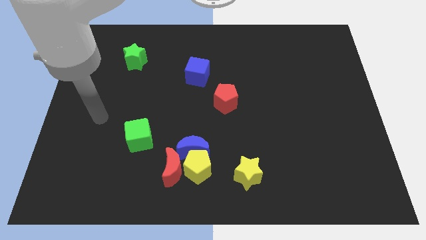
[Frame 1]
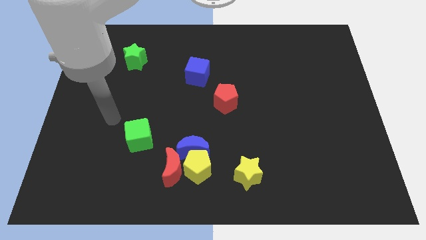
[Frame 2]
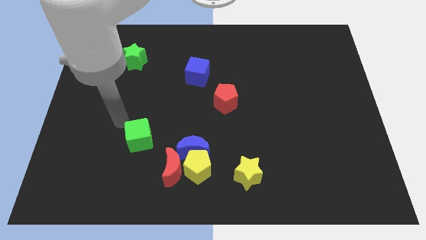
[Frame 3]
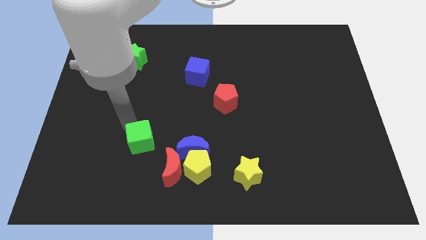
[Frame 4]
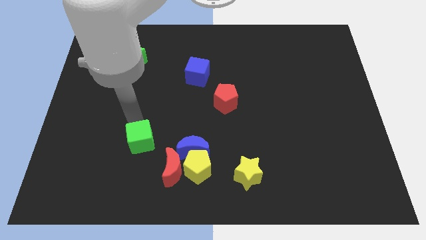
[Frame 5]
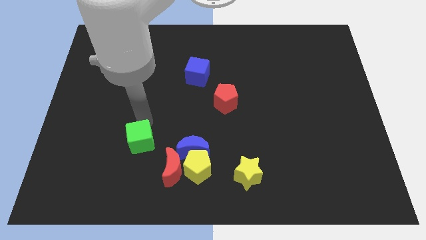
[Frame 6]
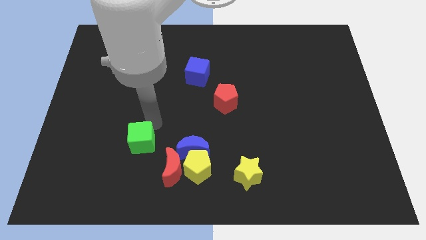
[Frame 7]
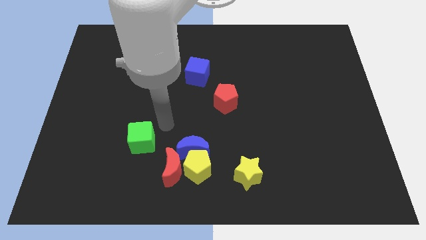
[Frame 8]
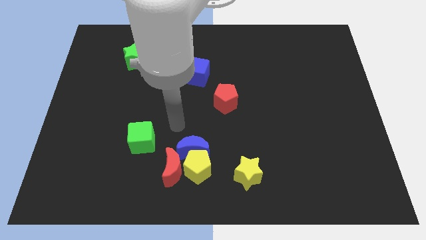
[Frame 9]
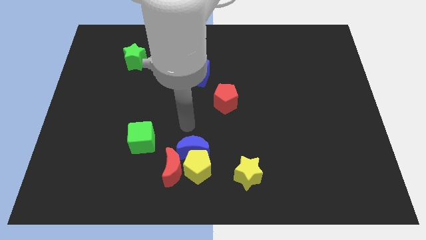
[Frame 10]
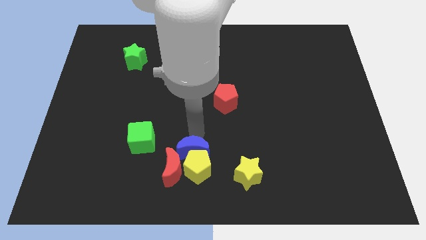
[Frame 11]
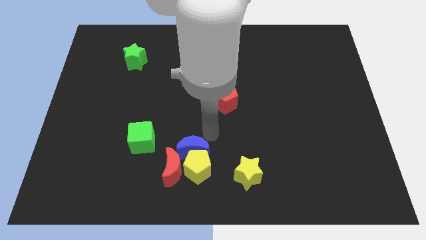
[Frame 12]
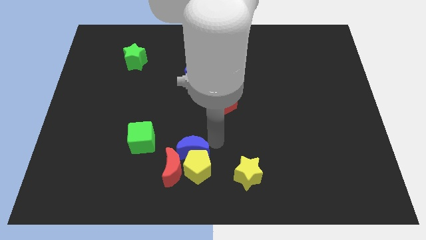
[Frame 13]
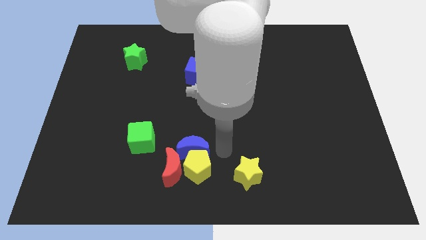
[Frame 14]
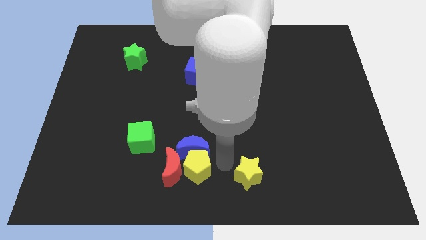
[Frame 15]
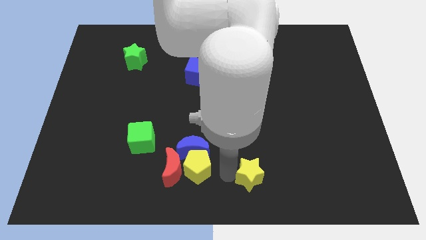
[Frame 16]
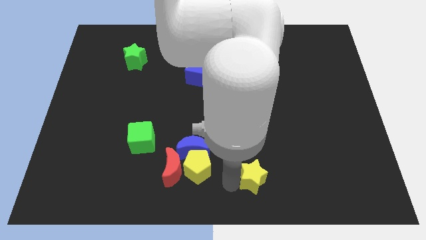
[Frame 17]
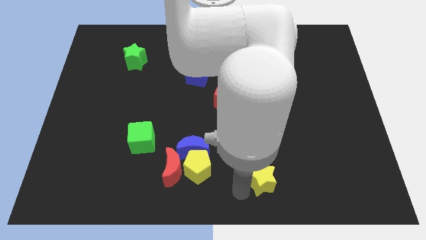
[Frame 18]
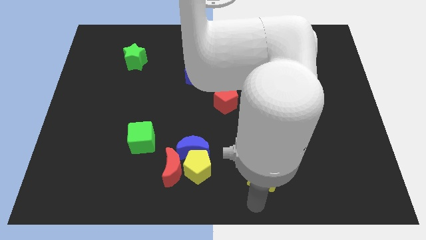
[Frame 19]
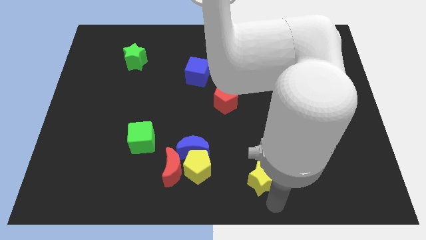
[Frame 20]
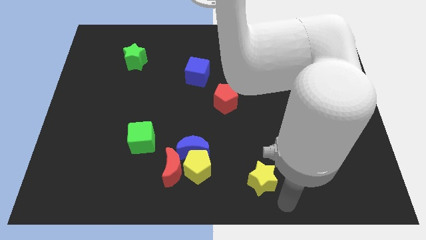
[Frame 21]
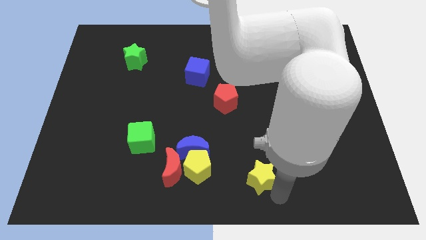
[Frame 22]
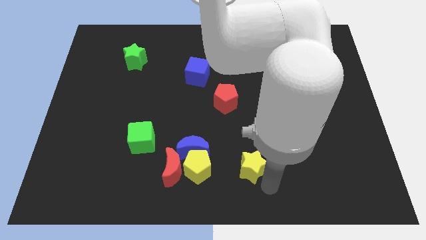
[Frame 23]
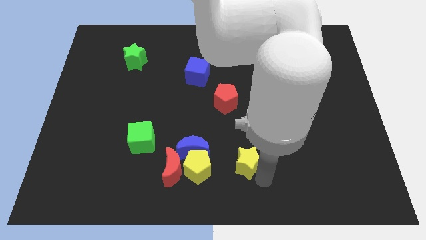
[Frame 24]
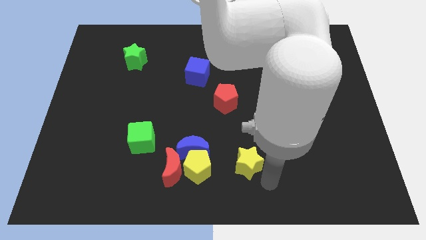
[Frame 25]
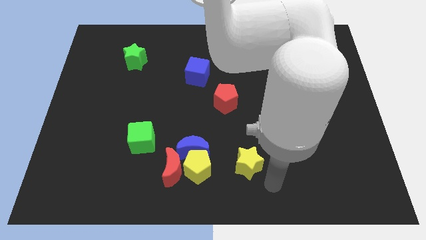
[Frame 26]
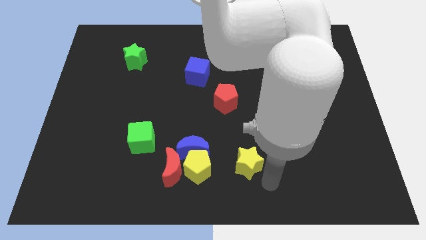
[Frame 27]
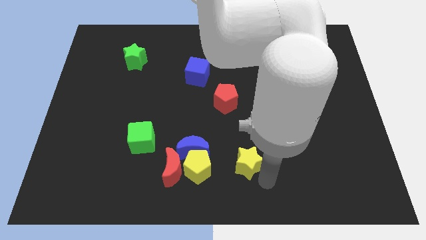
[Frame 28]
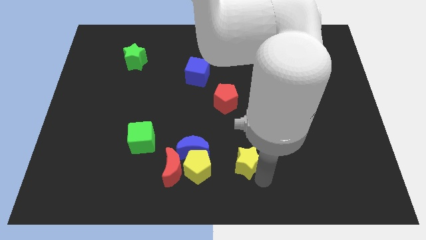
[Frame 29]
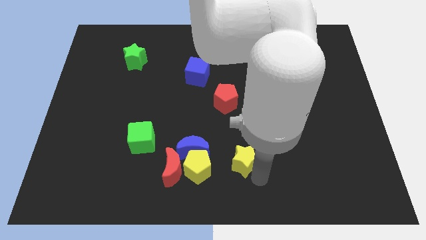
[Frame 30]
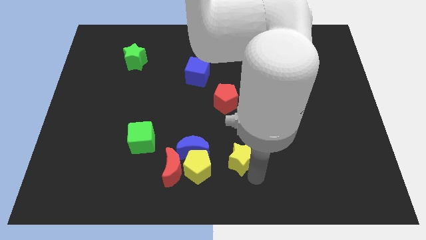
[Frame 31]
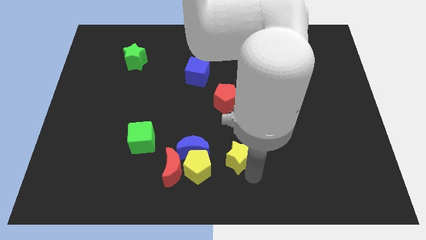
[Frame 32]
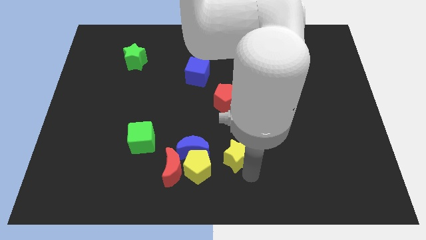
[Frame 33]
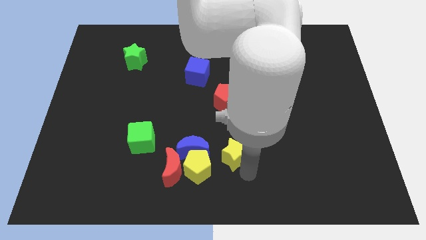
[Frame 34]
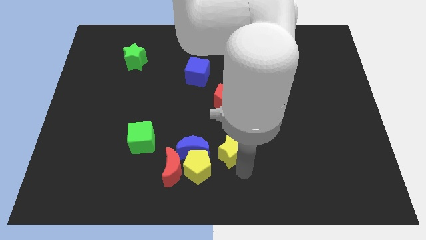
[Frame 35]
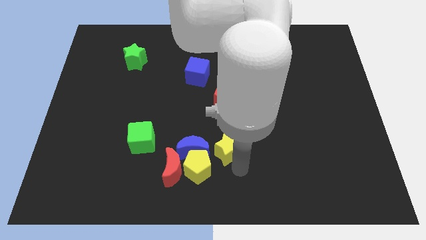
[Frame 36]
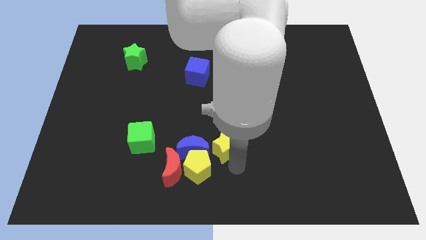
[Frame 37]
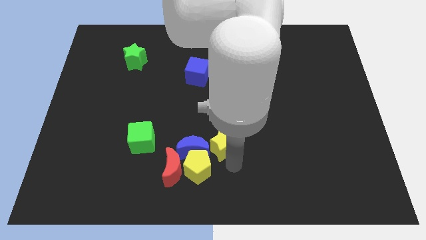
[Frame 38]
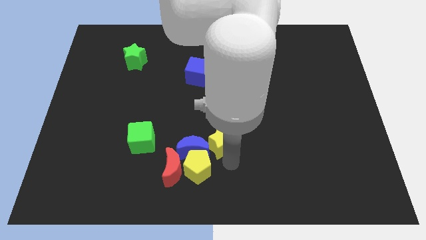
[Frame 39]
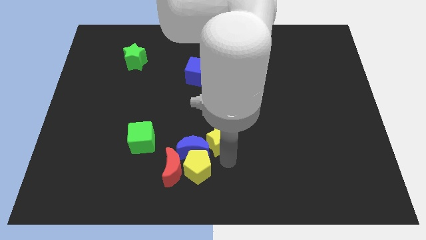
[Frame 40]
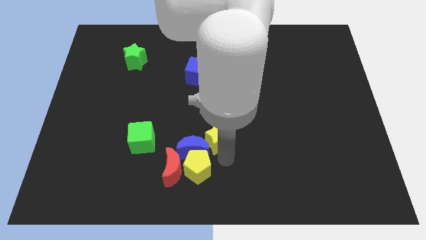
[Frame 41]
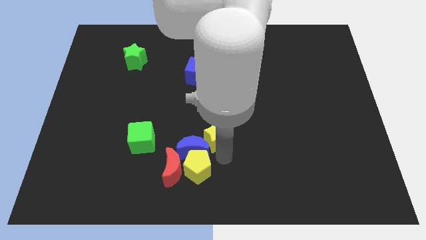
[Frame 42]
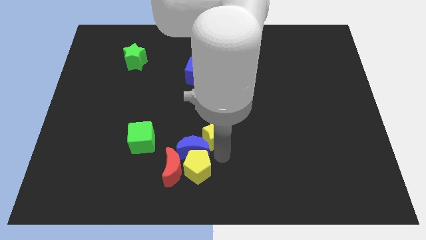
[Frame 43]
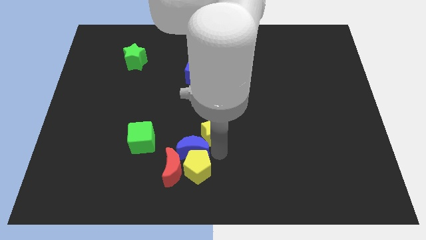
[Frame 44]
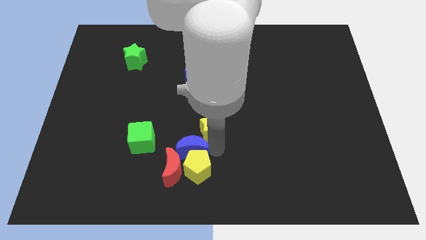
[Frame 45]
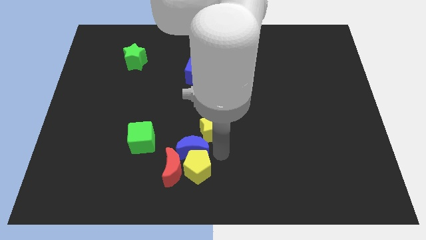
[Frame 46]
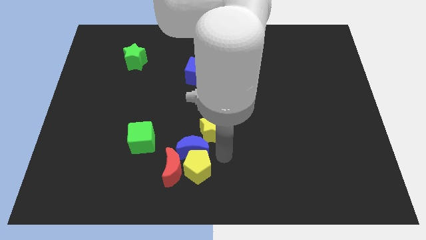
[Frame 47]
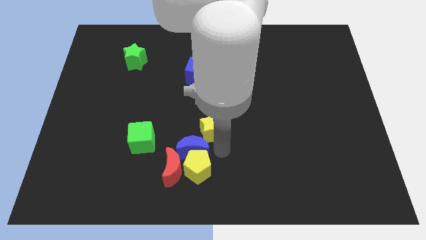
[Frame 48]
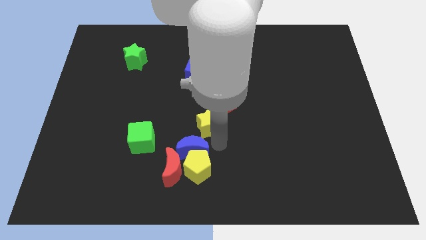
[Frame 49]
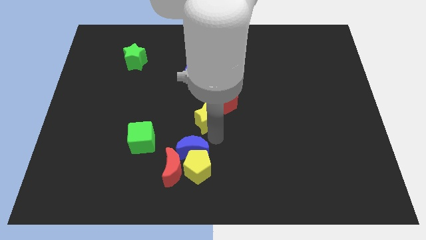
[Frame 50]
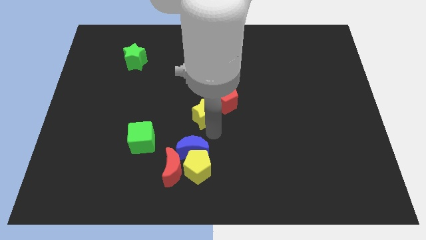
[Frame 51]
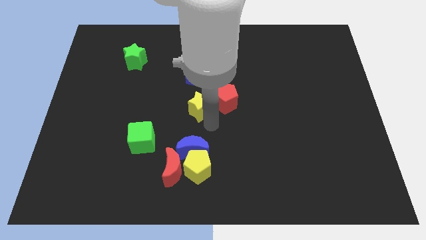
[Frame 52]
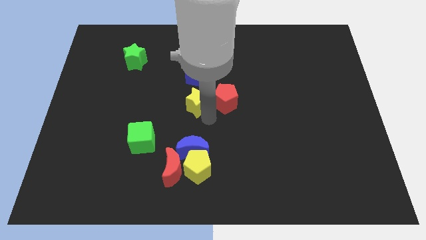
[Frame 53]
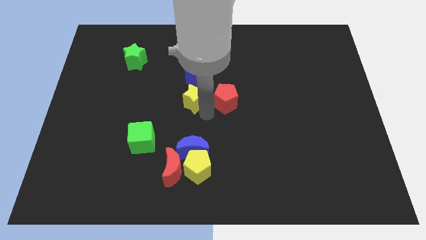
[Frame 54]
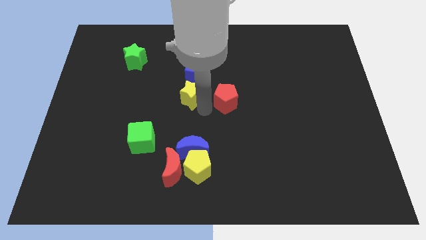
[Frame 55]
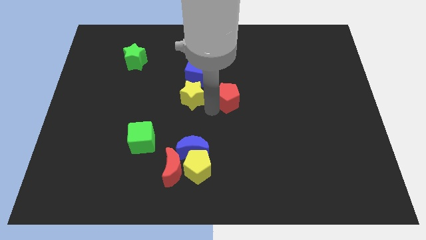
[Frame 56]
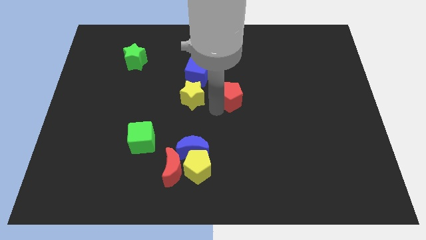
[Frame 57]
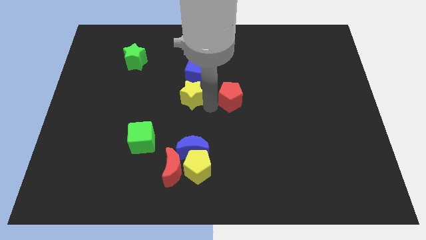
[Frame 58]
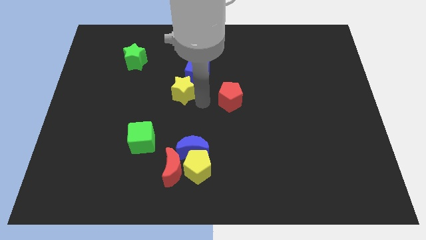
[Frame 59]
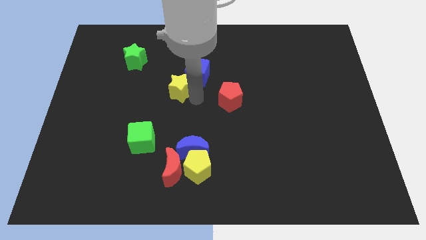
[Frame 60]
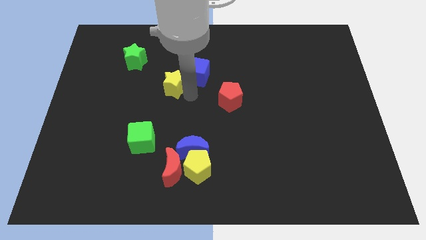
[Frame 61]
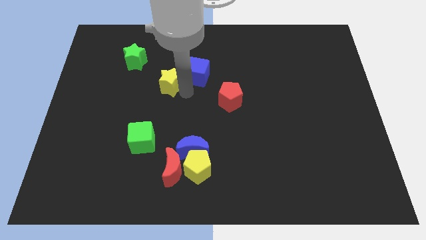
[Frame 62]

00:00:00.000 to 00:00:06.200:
slide the yellow star to the bottom right side of the green star

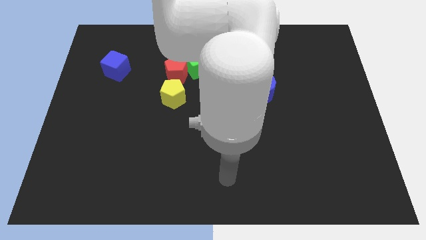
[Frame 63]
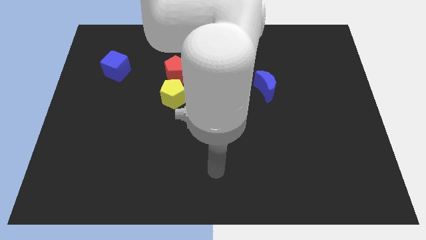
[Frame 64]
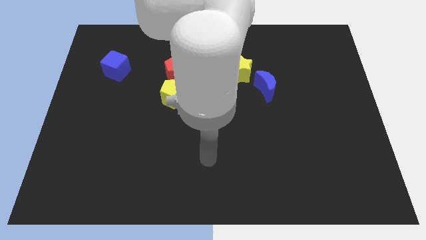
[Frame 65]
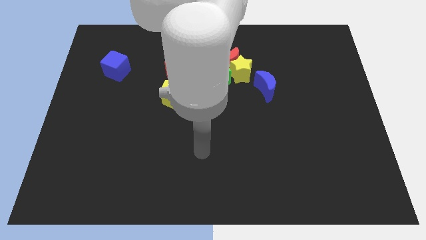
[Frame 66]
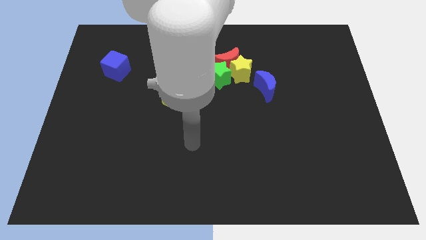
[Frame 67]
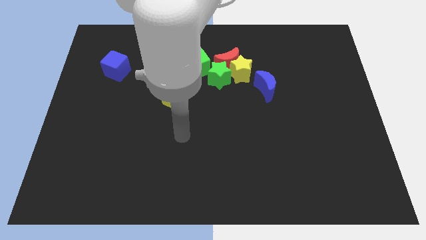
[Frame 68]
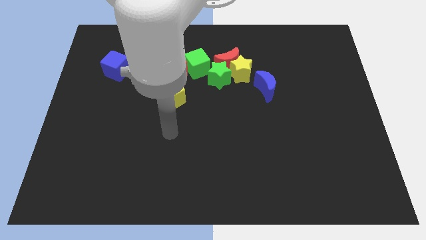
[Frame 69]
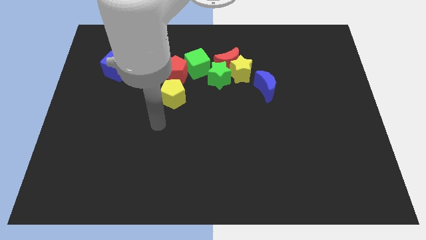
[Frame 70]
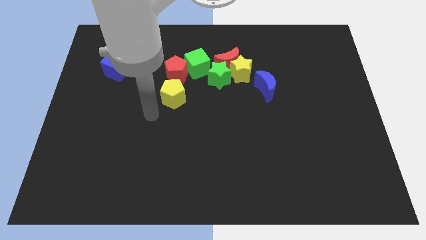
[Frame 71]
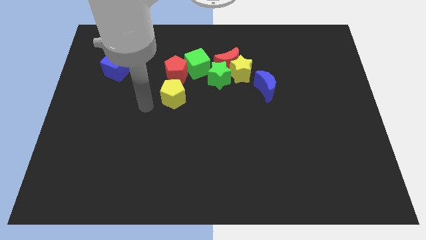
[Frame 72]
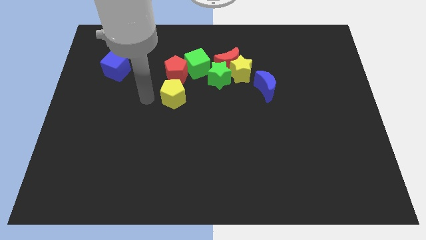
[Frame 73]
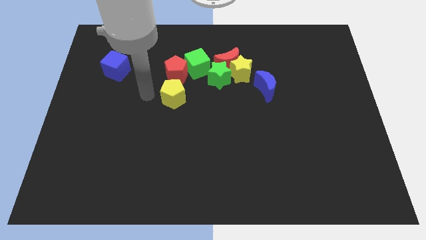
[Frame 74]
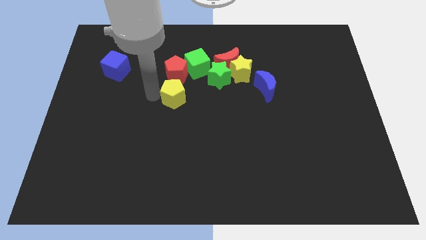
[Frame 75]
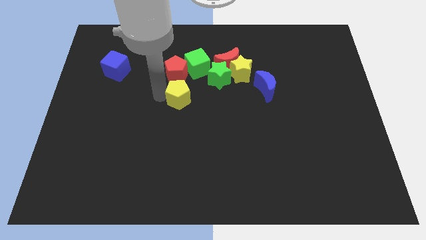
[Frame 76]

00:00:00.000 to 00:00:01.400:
put the yellow pentagon to the bottom side of the green cube
